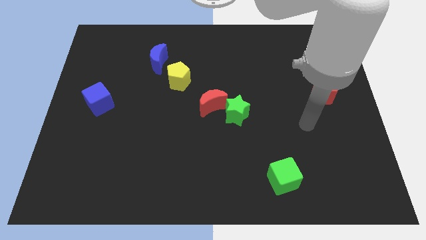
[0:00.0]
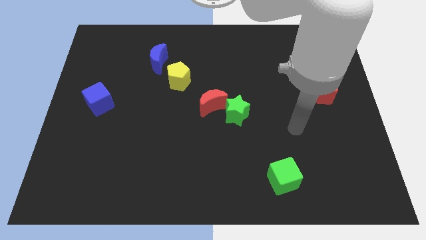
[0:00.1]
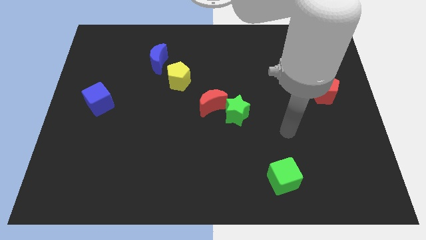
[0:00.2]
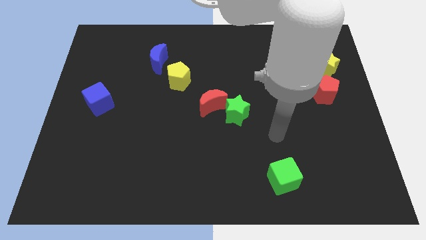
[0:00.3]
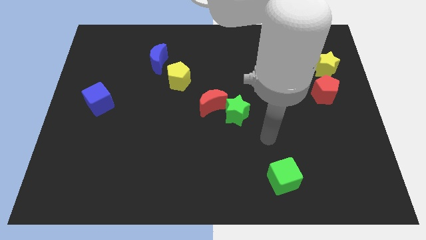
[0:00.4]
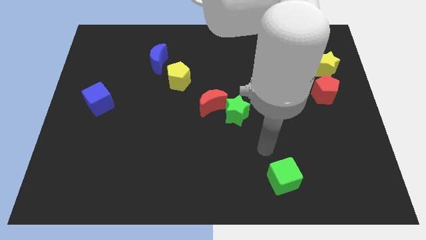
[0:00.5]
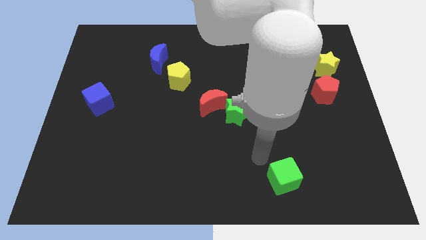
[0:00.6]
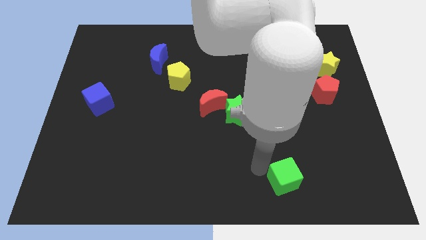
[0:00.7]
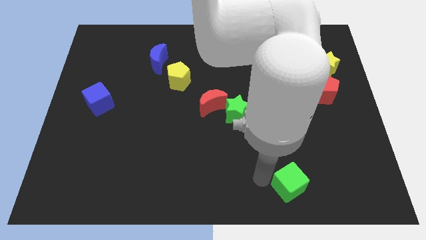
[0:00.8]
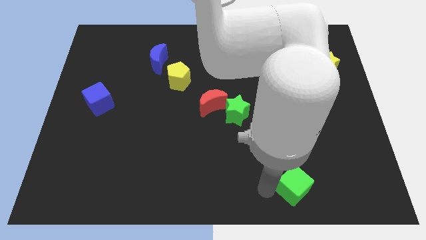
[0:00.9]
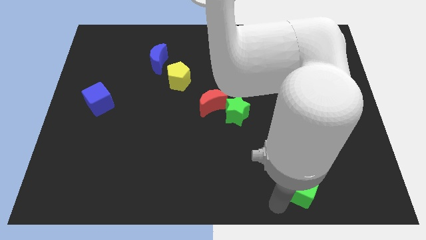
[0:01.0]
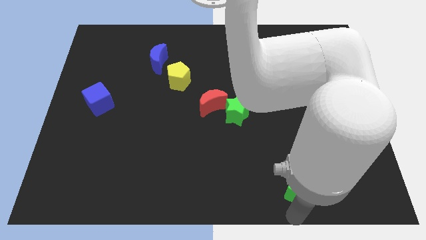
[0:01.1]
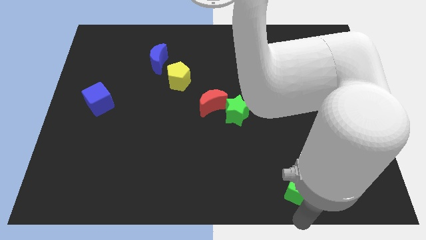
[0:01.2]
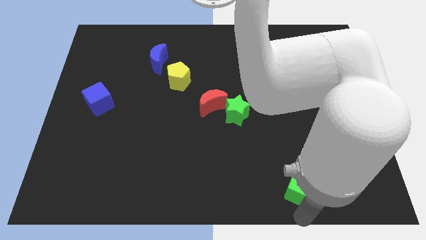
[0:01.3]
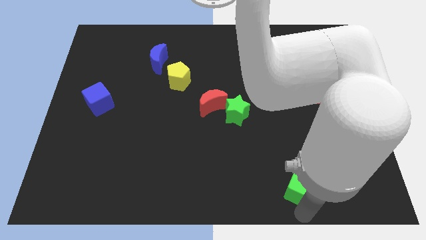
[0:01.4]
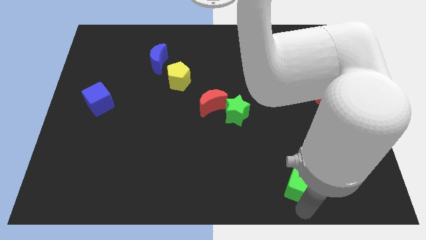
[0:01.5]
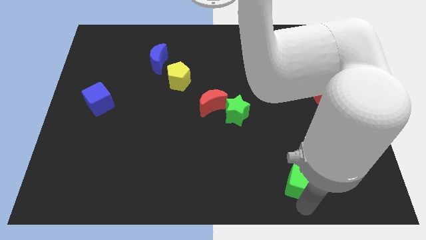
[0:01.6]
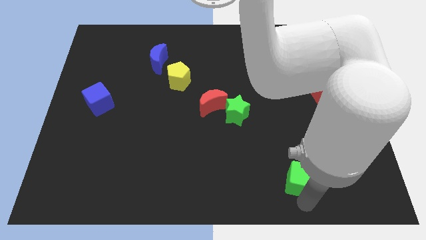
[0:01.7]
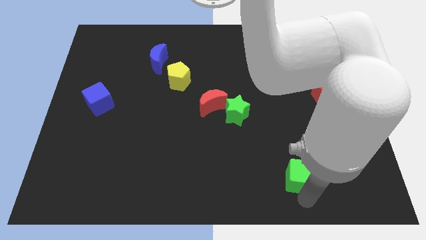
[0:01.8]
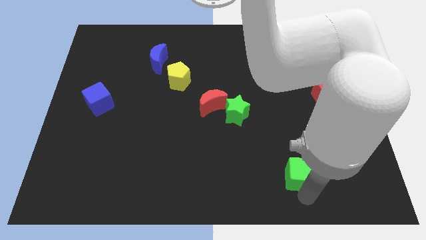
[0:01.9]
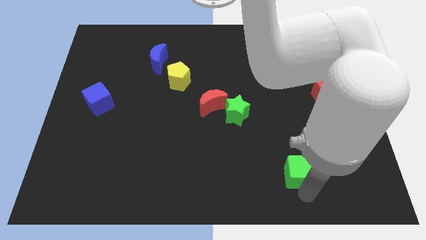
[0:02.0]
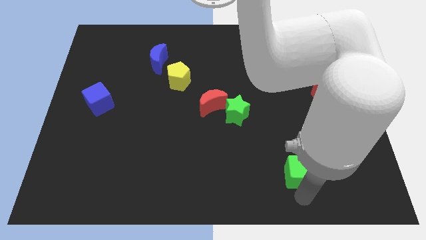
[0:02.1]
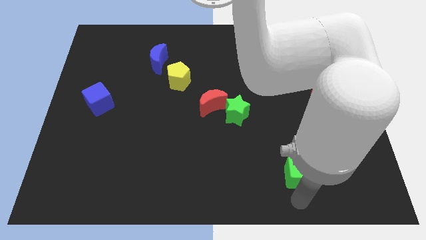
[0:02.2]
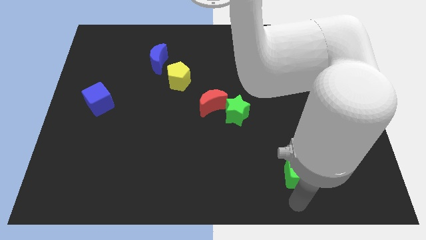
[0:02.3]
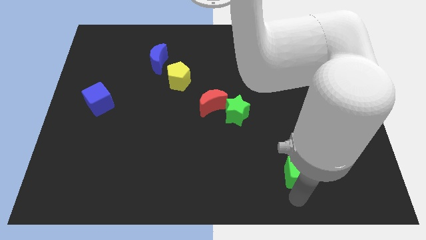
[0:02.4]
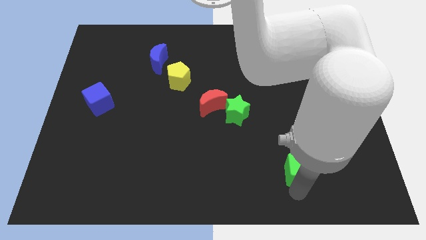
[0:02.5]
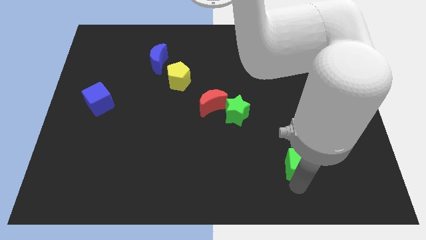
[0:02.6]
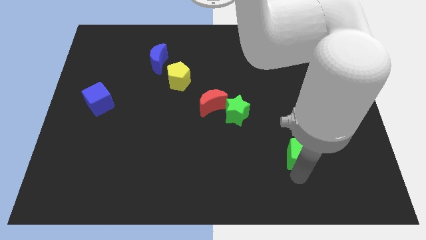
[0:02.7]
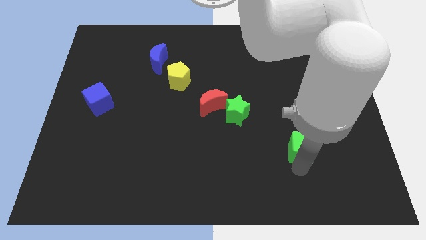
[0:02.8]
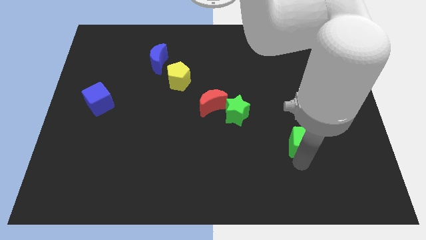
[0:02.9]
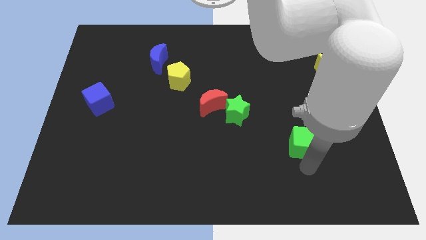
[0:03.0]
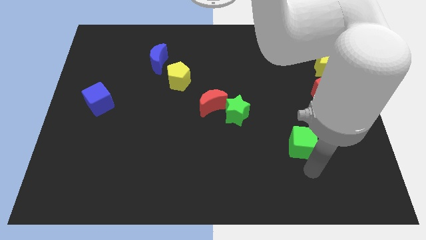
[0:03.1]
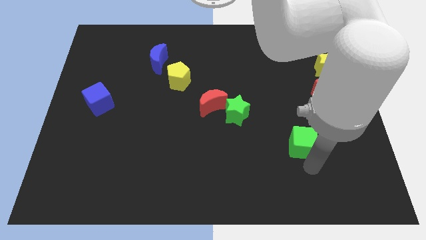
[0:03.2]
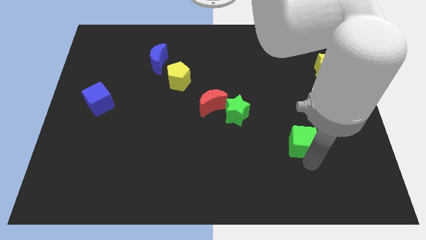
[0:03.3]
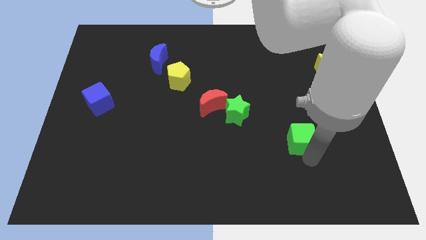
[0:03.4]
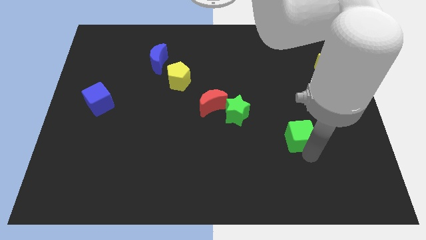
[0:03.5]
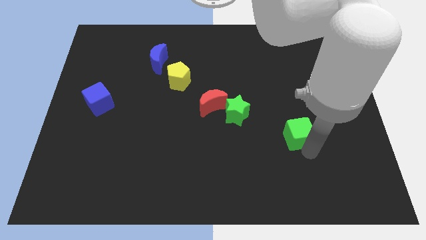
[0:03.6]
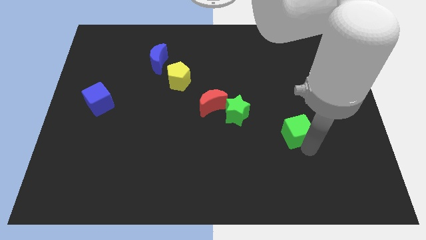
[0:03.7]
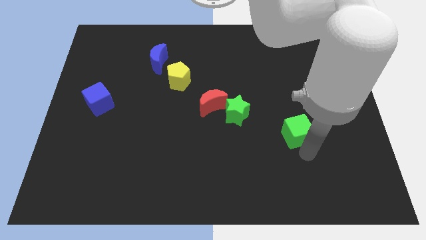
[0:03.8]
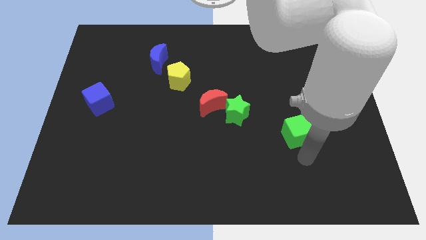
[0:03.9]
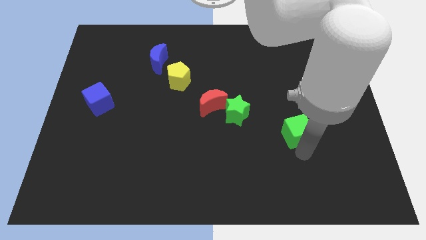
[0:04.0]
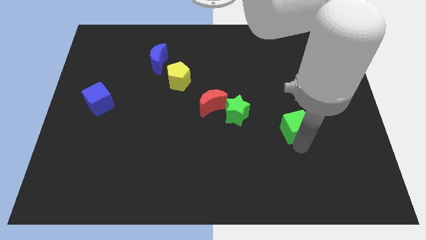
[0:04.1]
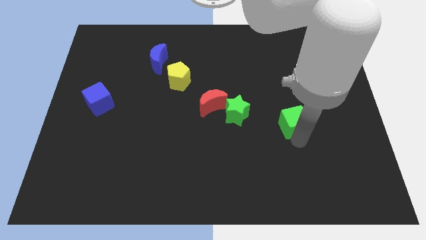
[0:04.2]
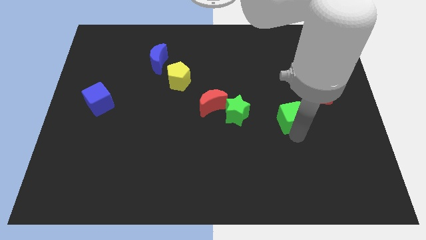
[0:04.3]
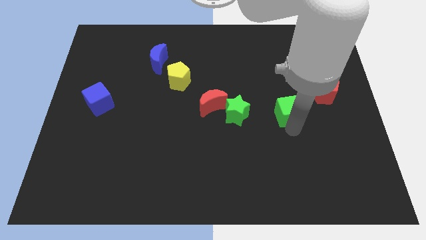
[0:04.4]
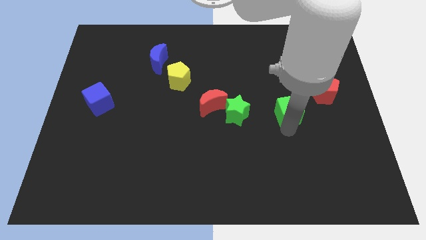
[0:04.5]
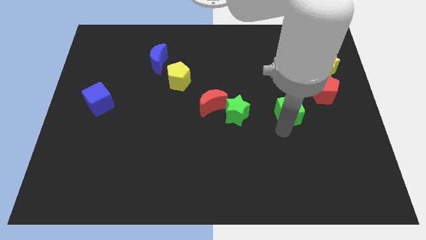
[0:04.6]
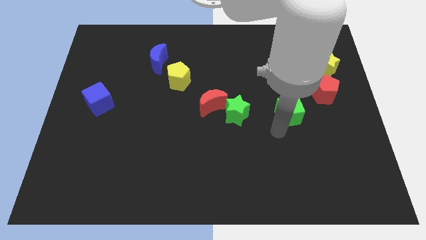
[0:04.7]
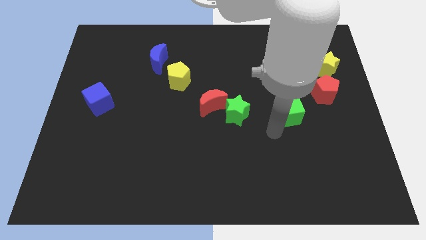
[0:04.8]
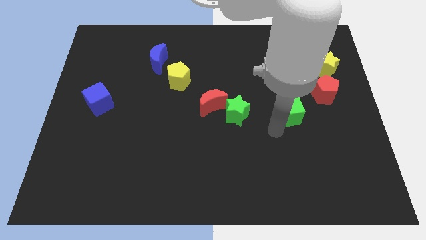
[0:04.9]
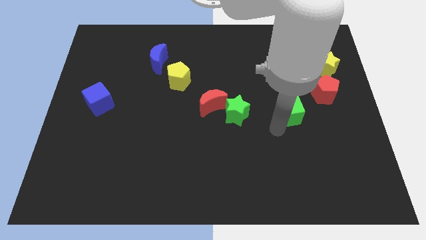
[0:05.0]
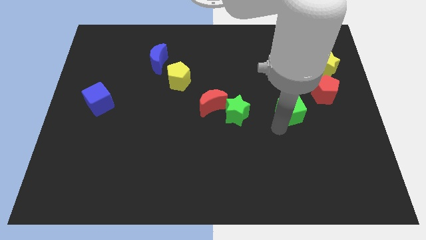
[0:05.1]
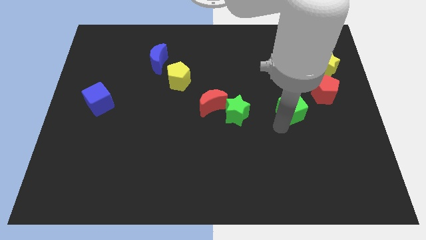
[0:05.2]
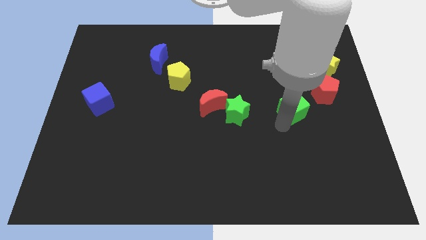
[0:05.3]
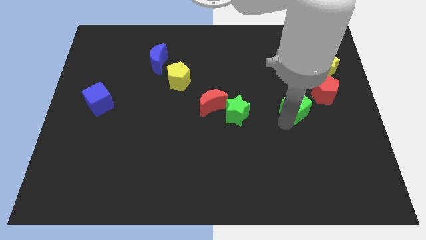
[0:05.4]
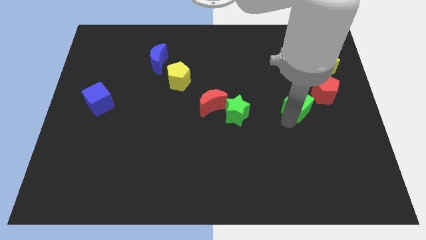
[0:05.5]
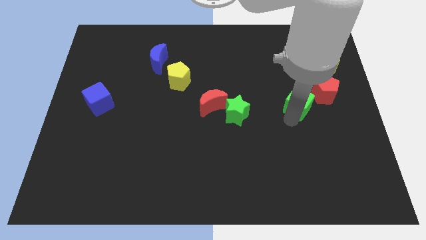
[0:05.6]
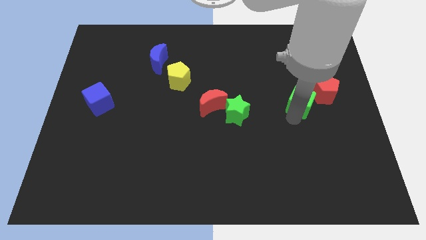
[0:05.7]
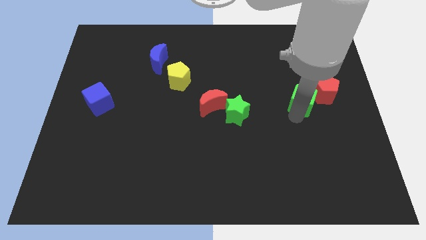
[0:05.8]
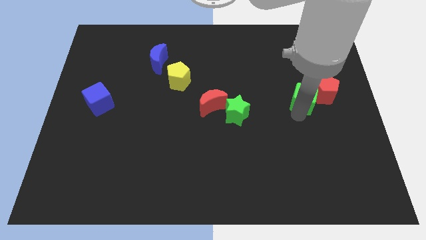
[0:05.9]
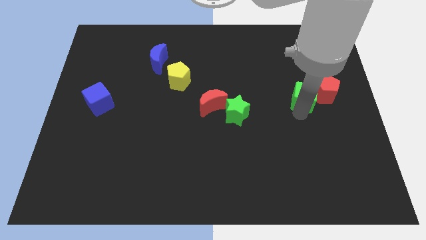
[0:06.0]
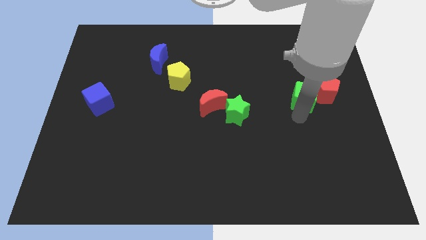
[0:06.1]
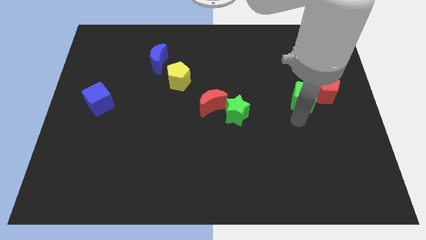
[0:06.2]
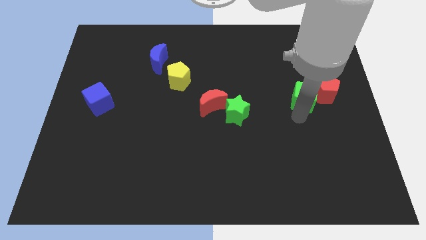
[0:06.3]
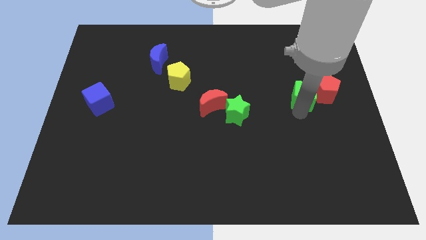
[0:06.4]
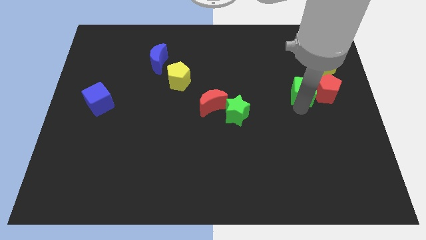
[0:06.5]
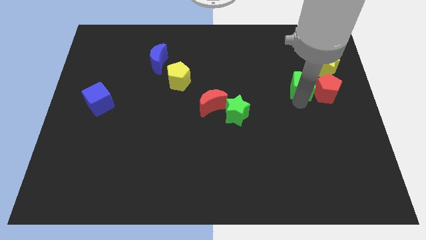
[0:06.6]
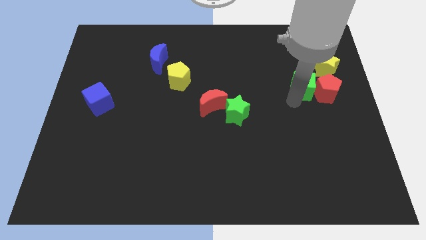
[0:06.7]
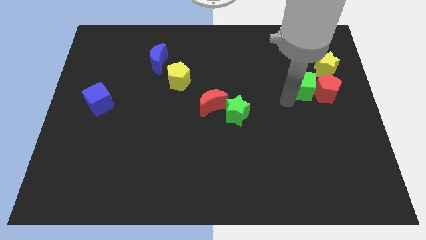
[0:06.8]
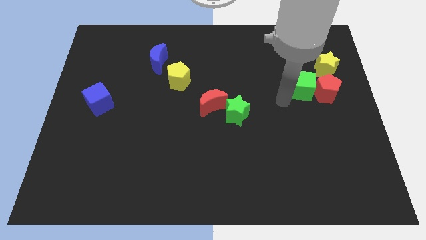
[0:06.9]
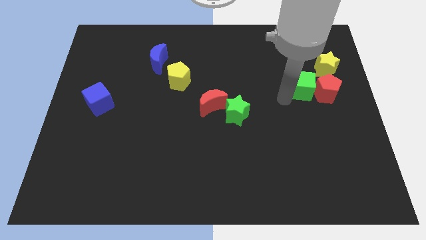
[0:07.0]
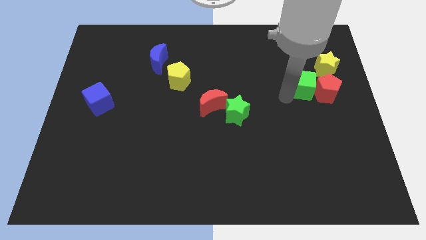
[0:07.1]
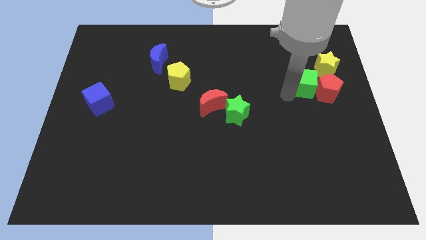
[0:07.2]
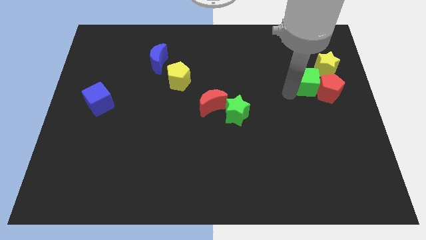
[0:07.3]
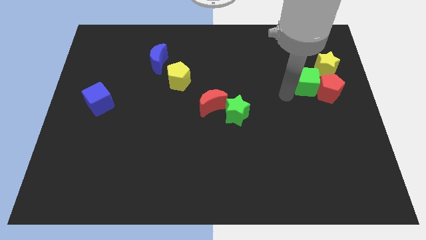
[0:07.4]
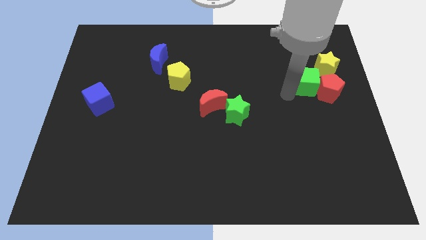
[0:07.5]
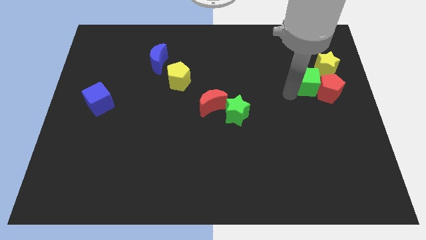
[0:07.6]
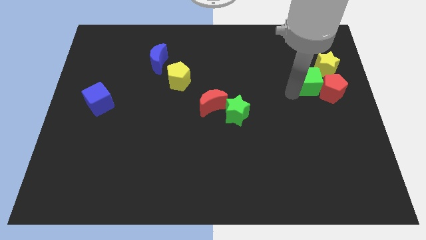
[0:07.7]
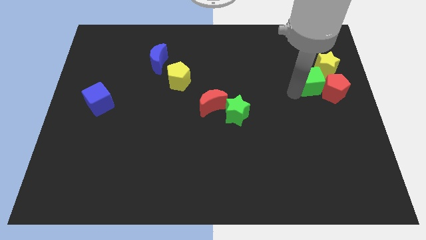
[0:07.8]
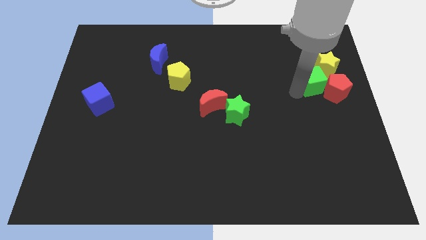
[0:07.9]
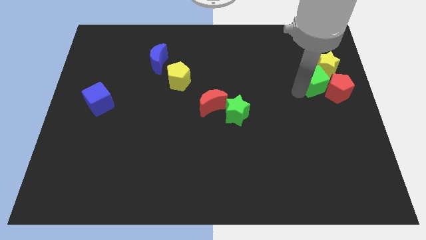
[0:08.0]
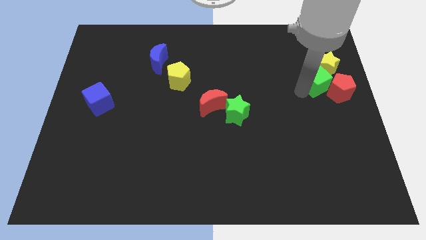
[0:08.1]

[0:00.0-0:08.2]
push the green cube towards the yellow star

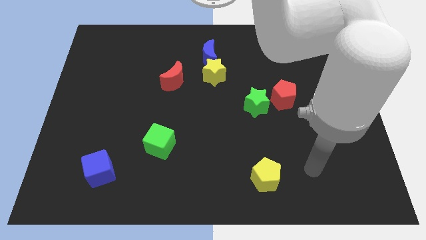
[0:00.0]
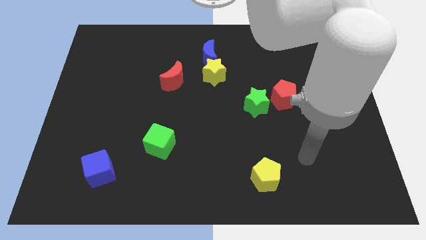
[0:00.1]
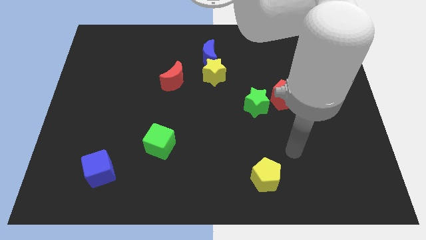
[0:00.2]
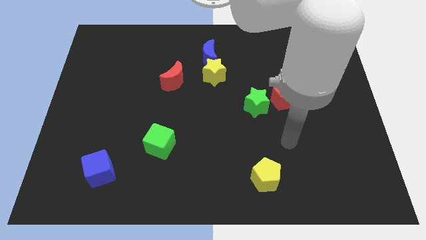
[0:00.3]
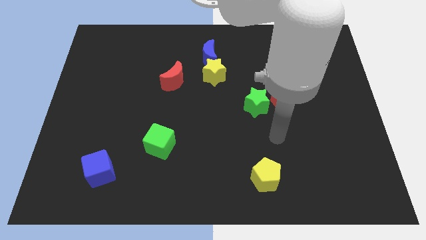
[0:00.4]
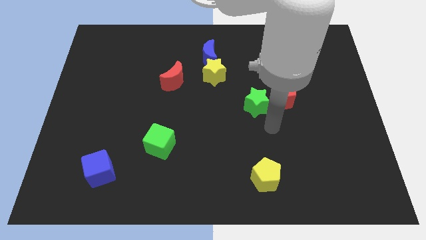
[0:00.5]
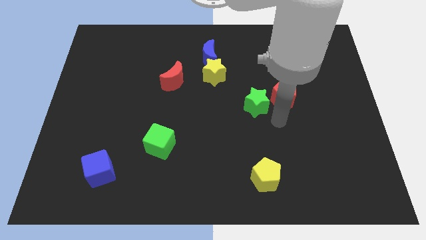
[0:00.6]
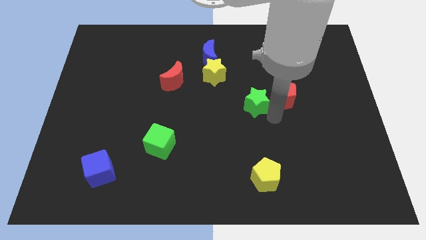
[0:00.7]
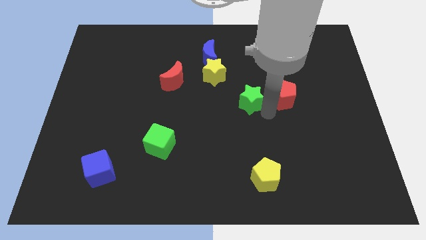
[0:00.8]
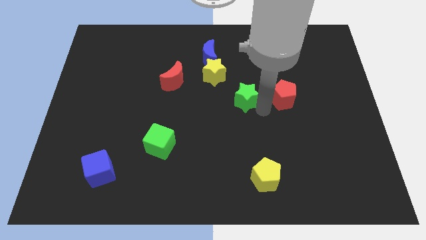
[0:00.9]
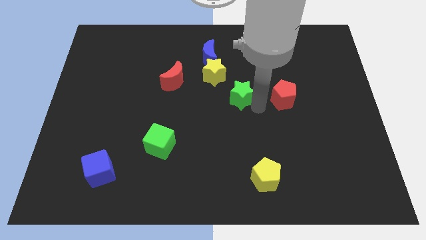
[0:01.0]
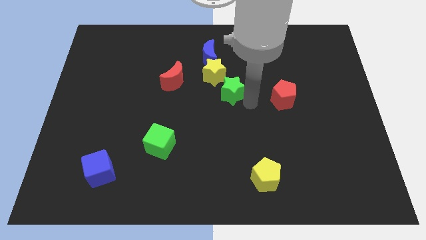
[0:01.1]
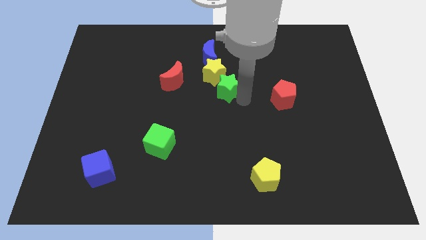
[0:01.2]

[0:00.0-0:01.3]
slide the green star to the yellow star
